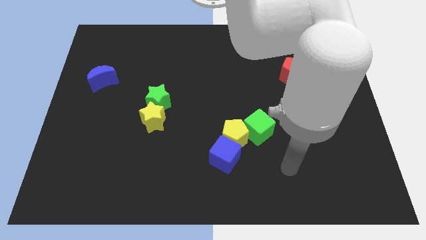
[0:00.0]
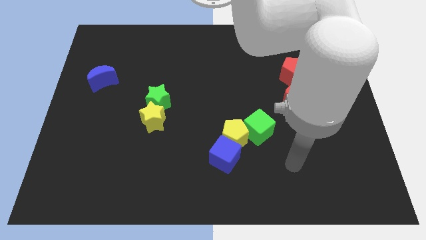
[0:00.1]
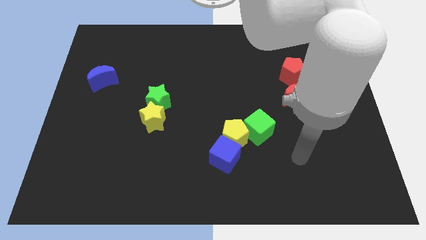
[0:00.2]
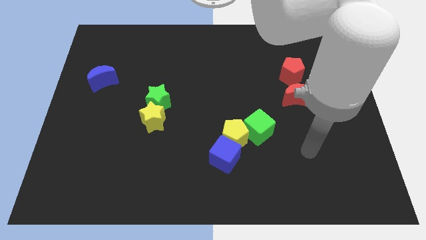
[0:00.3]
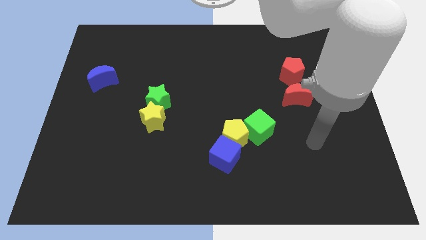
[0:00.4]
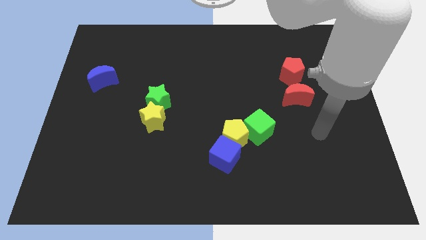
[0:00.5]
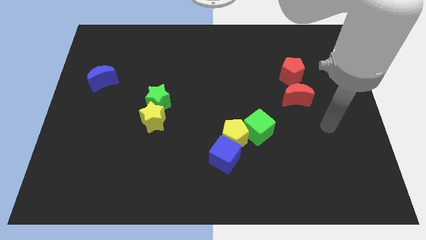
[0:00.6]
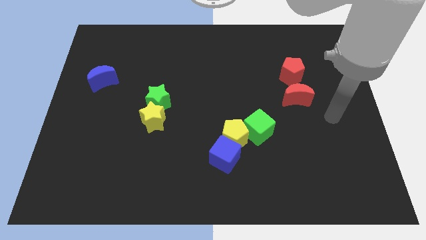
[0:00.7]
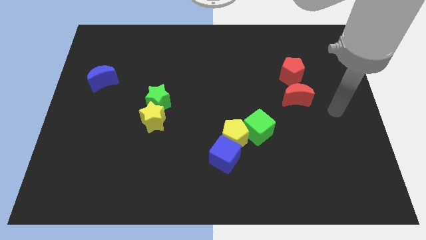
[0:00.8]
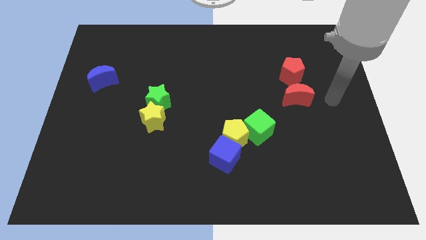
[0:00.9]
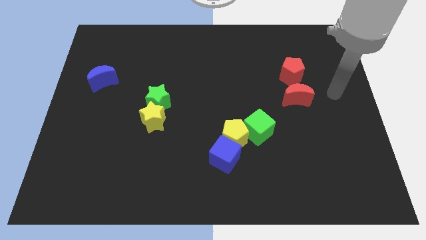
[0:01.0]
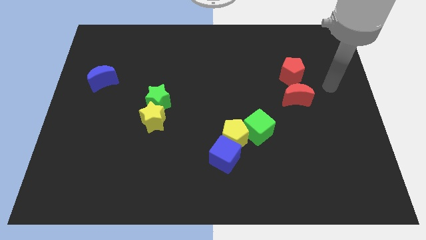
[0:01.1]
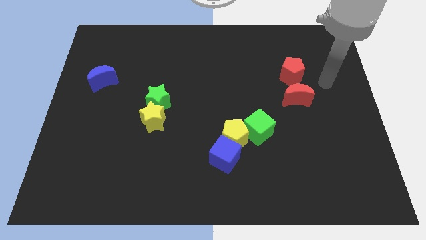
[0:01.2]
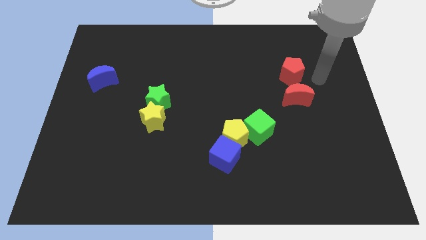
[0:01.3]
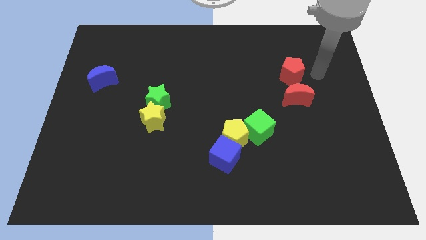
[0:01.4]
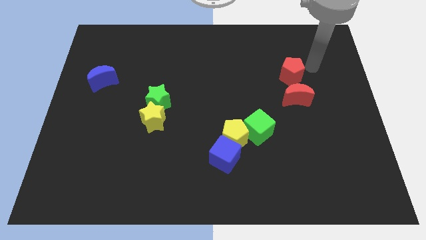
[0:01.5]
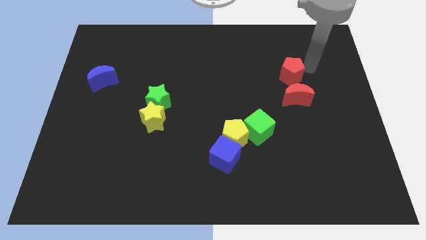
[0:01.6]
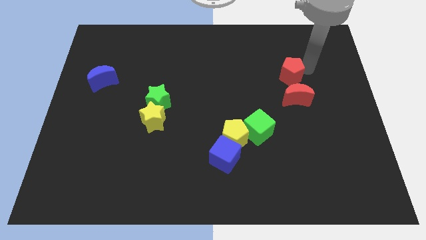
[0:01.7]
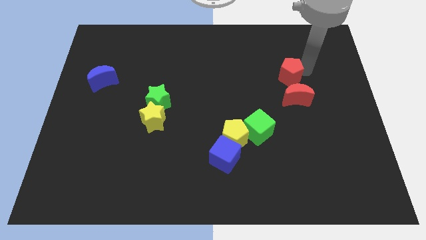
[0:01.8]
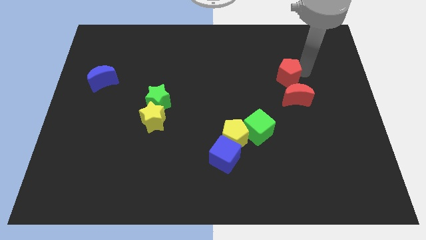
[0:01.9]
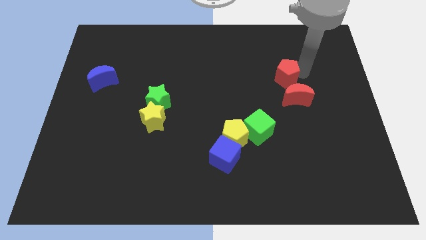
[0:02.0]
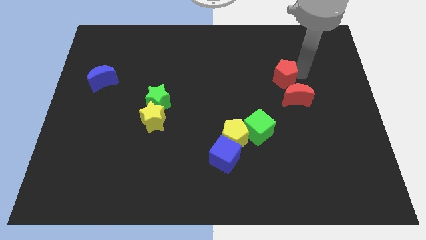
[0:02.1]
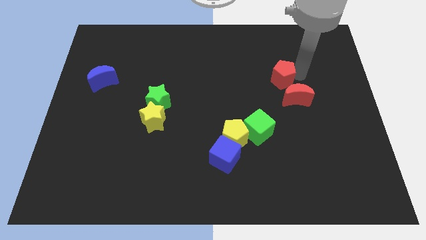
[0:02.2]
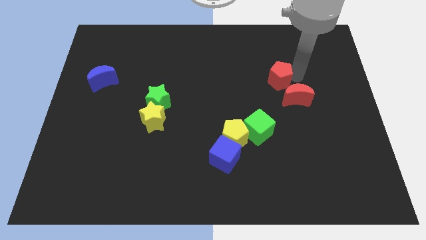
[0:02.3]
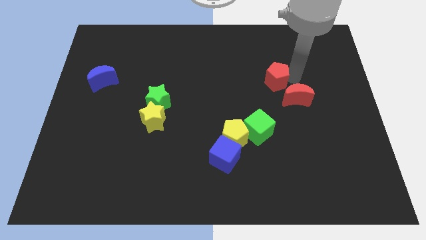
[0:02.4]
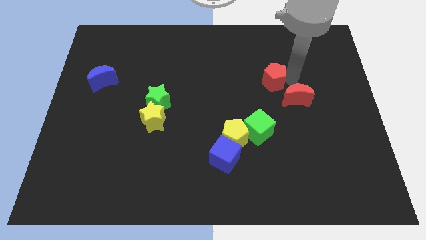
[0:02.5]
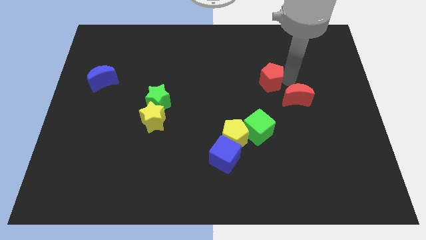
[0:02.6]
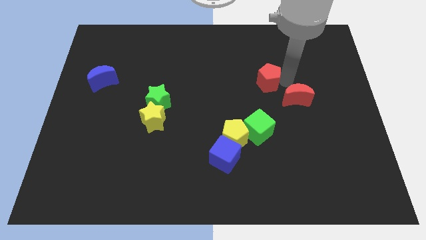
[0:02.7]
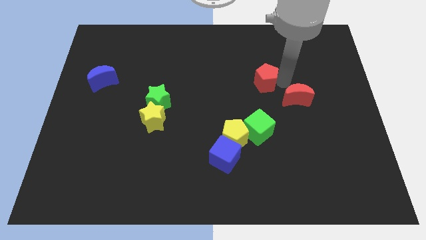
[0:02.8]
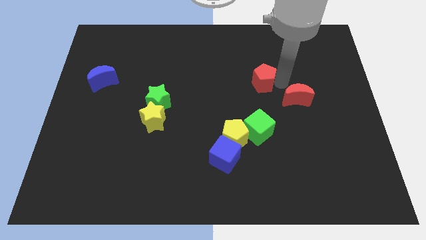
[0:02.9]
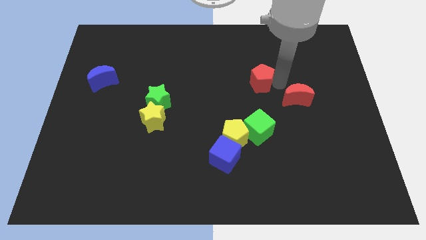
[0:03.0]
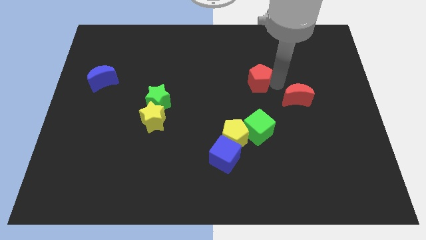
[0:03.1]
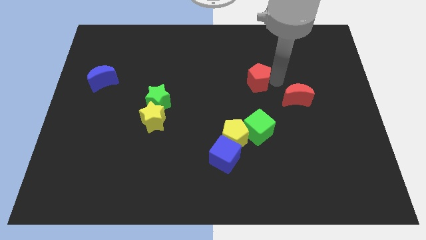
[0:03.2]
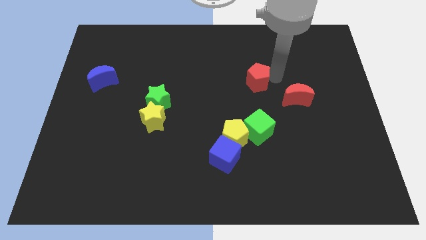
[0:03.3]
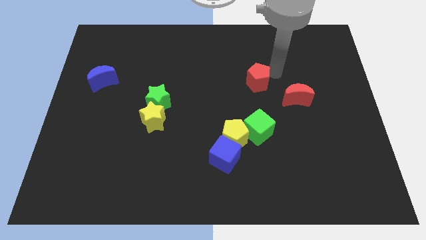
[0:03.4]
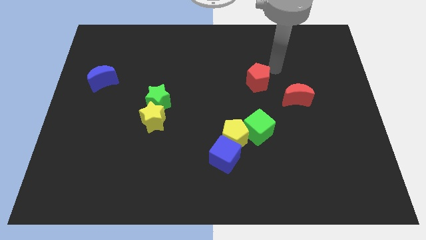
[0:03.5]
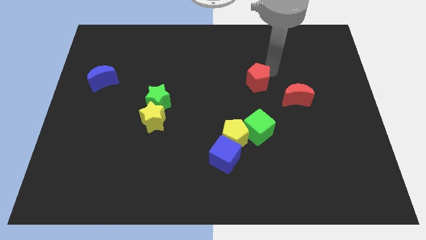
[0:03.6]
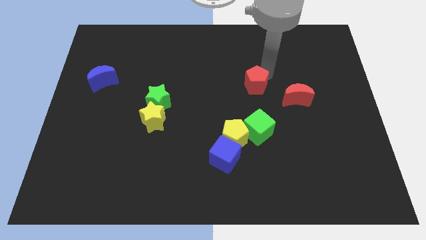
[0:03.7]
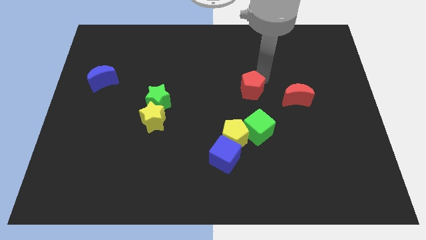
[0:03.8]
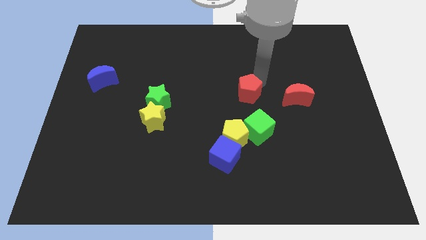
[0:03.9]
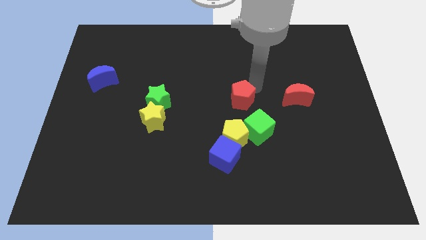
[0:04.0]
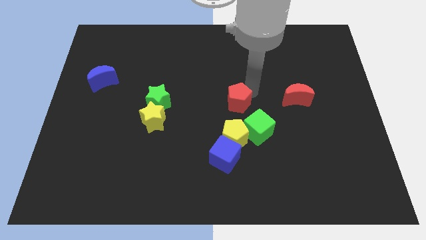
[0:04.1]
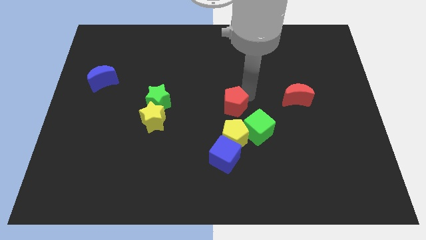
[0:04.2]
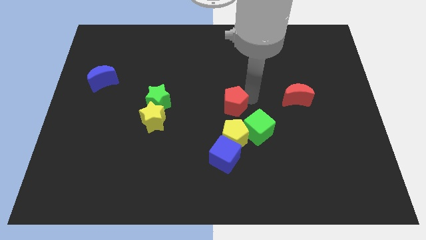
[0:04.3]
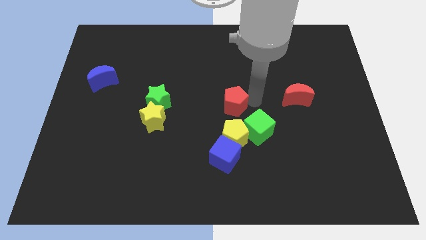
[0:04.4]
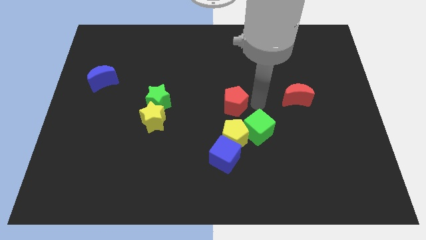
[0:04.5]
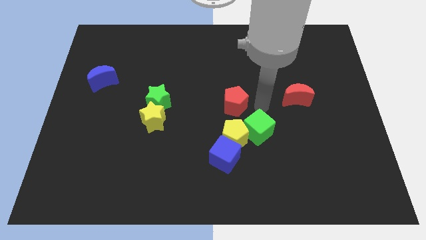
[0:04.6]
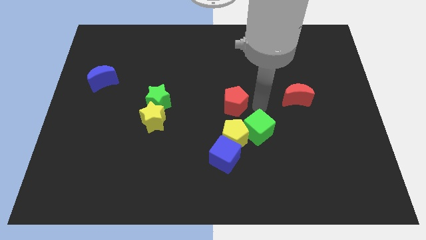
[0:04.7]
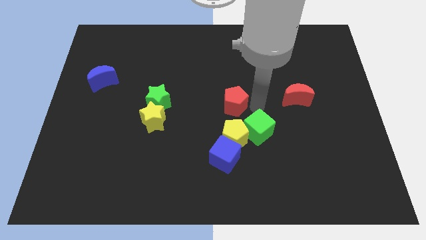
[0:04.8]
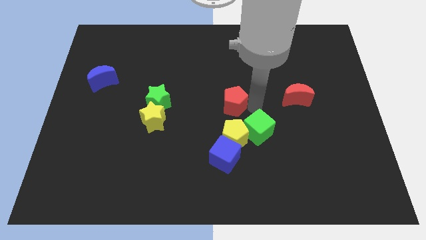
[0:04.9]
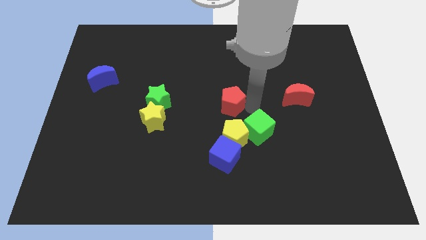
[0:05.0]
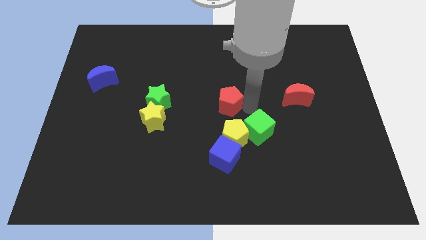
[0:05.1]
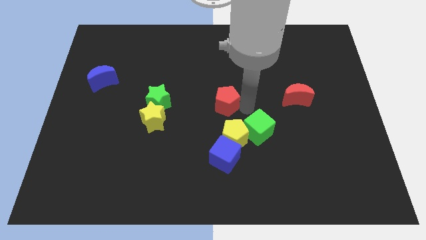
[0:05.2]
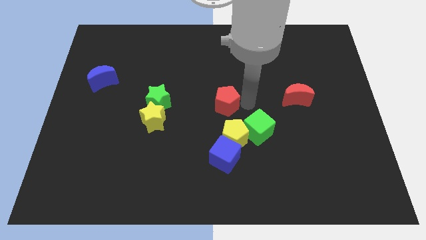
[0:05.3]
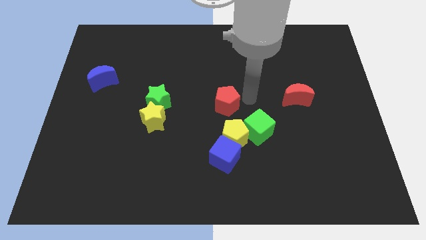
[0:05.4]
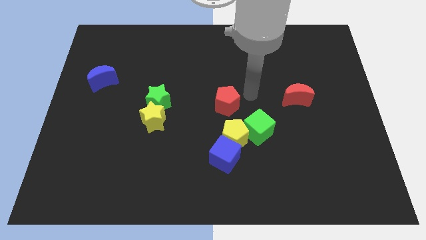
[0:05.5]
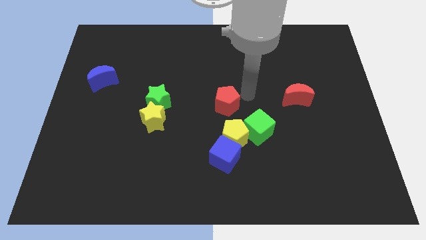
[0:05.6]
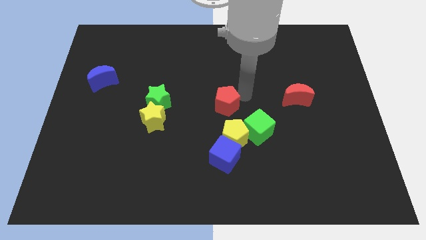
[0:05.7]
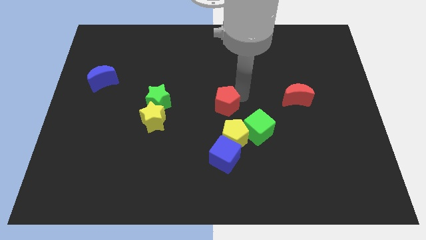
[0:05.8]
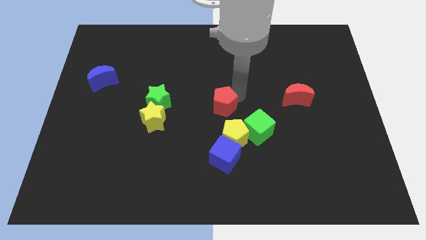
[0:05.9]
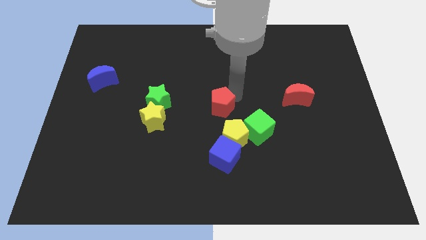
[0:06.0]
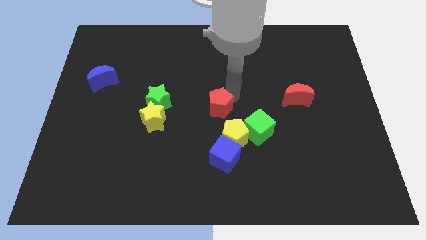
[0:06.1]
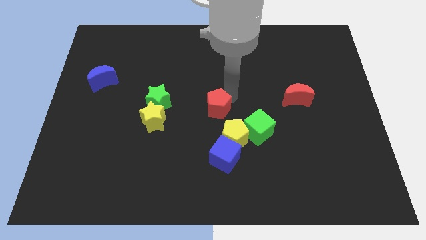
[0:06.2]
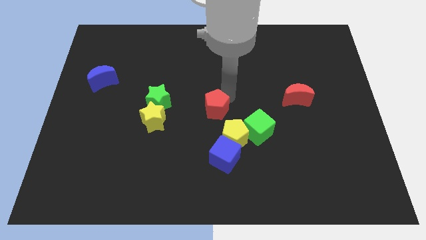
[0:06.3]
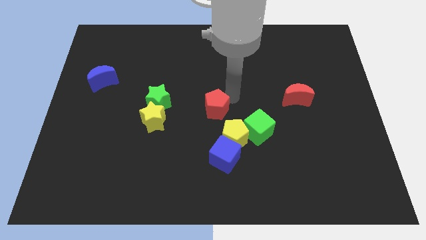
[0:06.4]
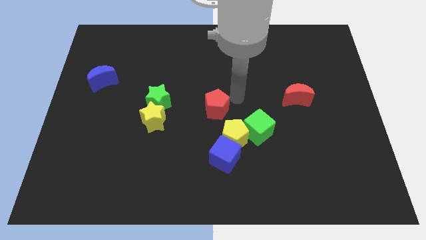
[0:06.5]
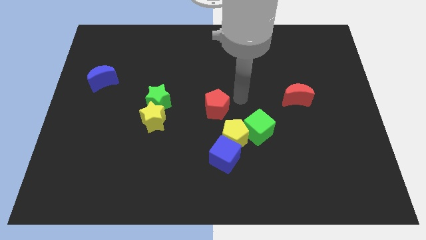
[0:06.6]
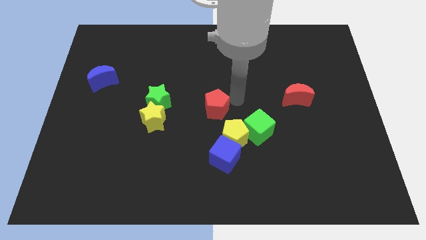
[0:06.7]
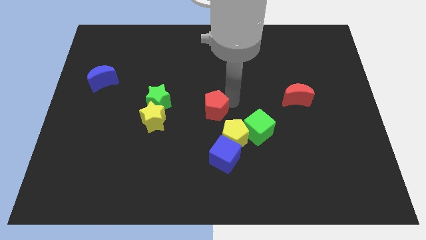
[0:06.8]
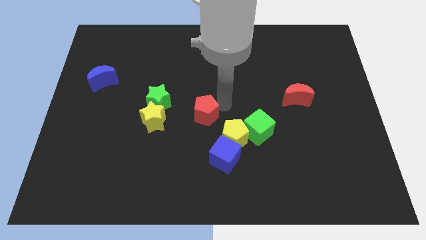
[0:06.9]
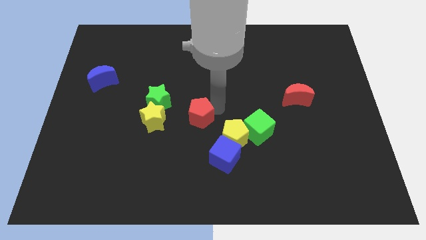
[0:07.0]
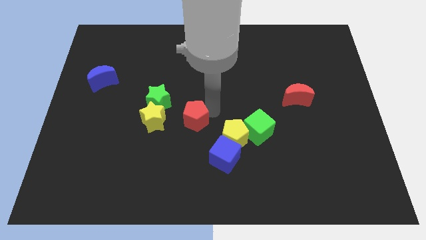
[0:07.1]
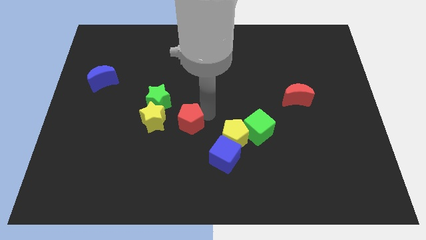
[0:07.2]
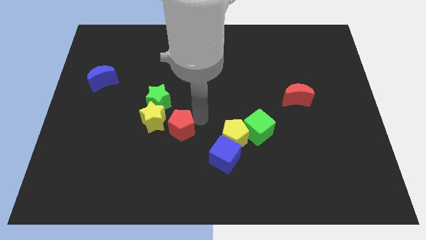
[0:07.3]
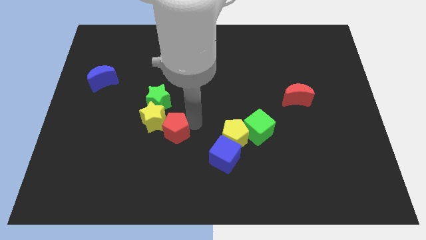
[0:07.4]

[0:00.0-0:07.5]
put the red pentagon to the yellow star
